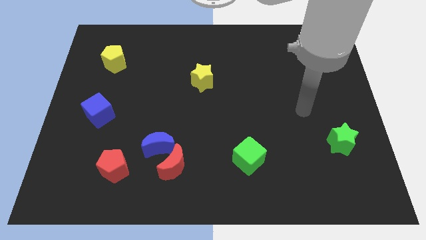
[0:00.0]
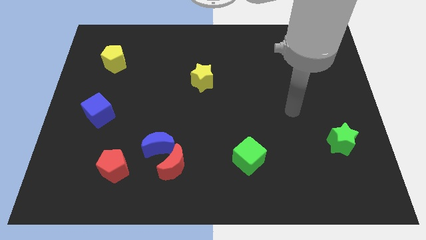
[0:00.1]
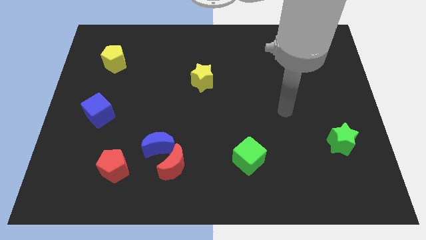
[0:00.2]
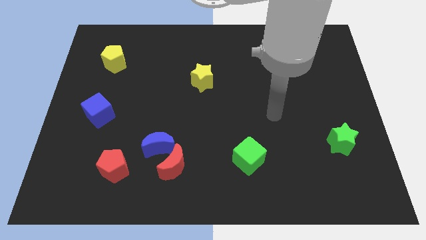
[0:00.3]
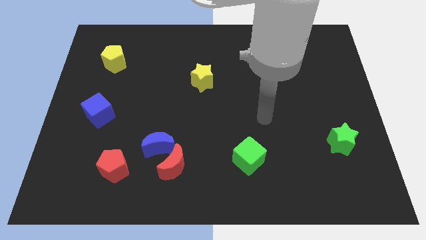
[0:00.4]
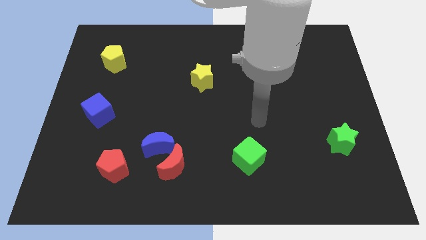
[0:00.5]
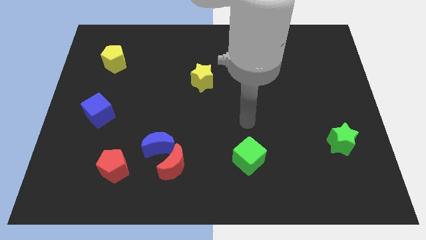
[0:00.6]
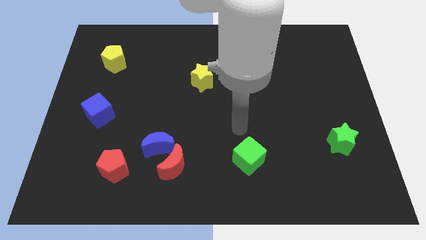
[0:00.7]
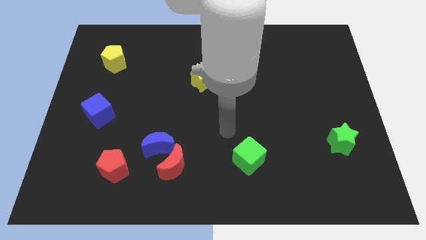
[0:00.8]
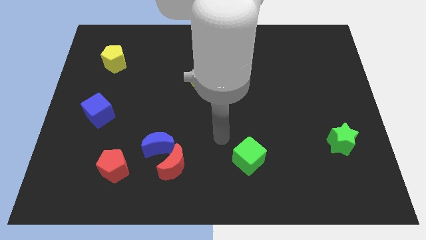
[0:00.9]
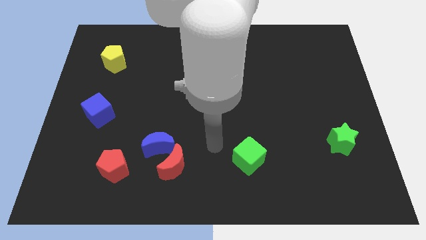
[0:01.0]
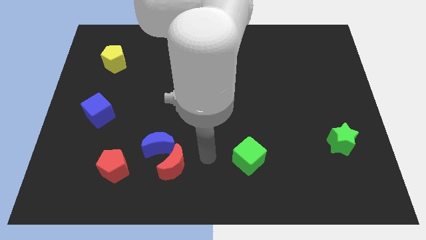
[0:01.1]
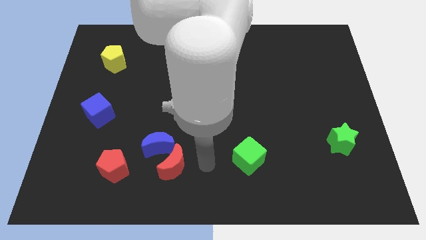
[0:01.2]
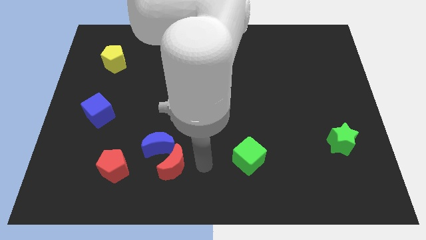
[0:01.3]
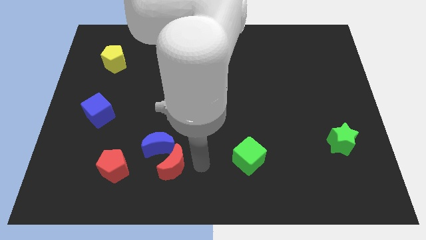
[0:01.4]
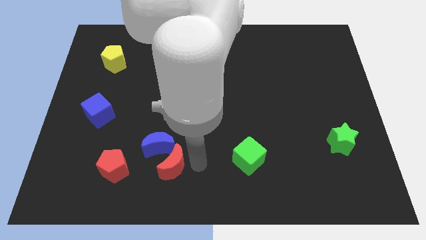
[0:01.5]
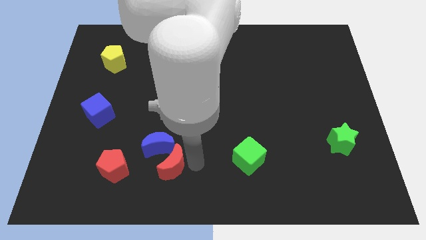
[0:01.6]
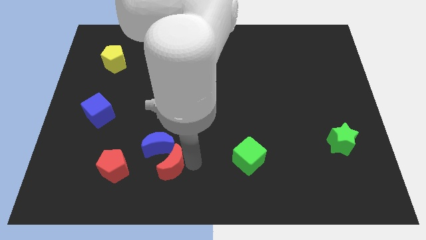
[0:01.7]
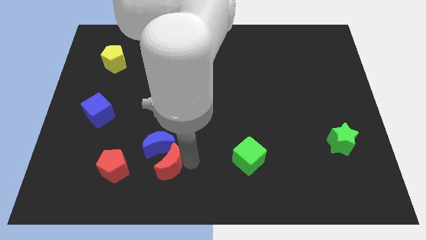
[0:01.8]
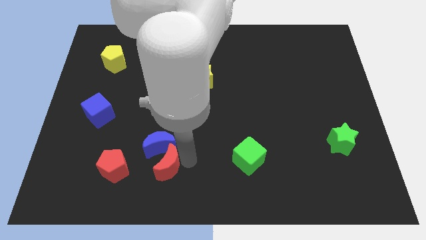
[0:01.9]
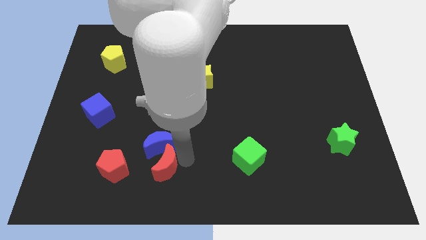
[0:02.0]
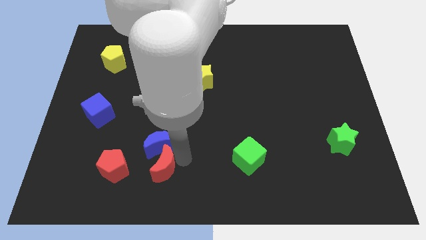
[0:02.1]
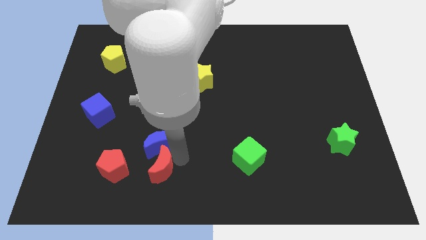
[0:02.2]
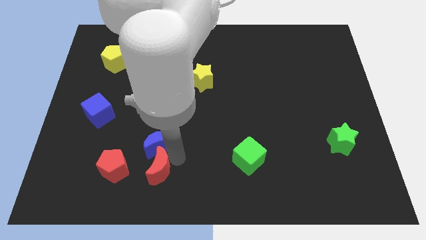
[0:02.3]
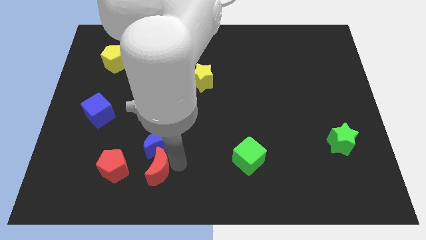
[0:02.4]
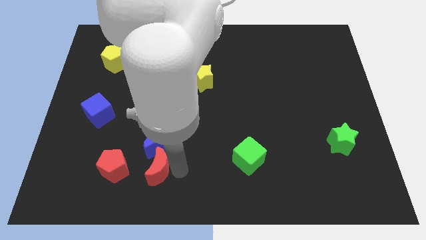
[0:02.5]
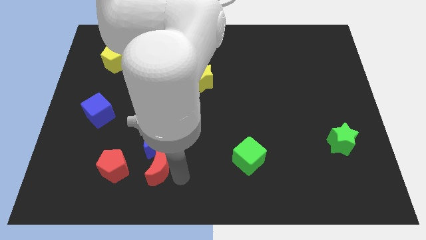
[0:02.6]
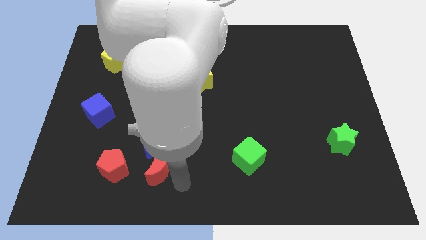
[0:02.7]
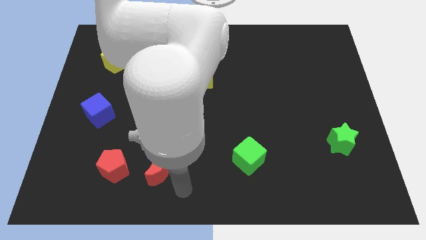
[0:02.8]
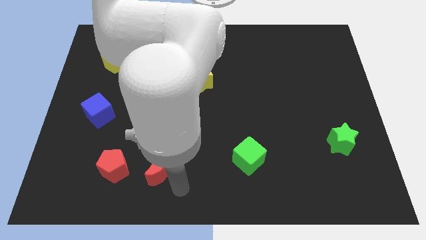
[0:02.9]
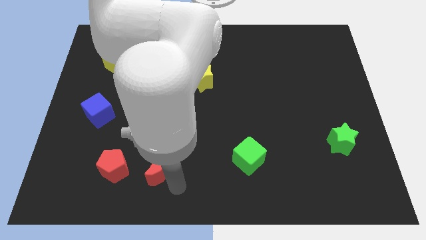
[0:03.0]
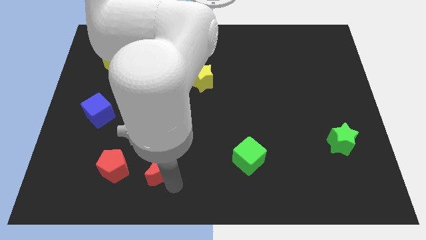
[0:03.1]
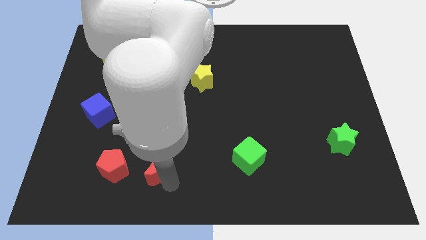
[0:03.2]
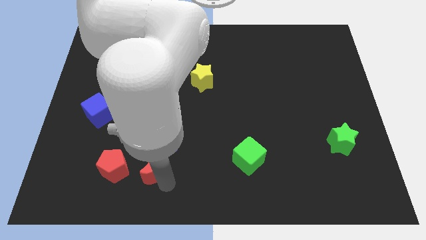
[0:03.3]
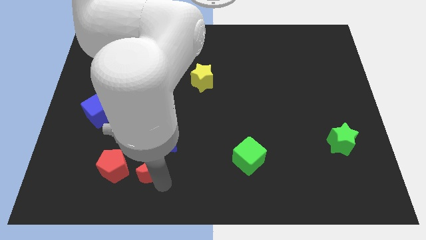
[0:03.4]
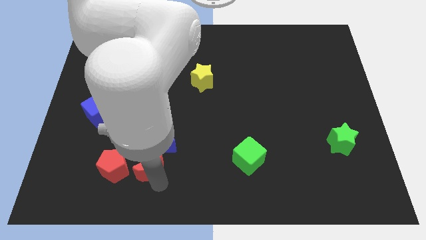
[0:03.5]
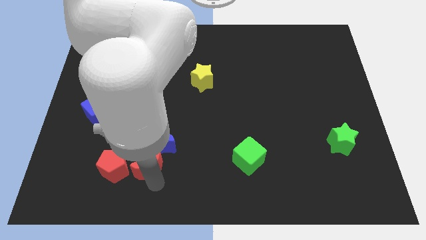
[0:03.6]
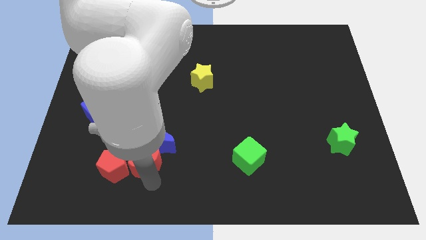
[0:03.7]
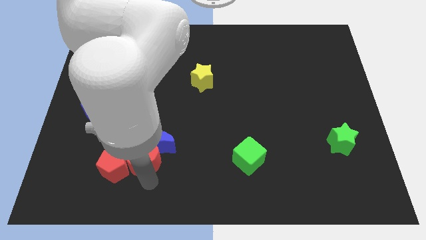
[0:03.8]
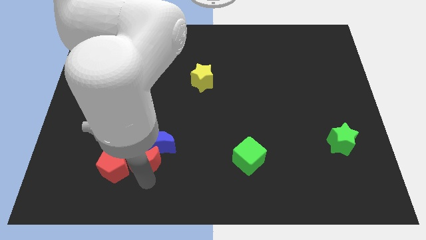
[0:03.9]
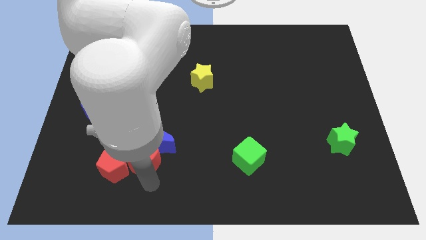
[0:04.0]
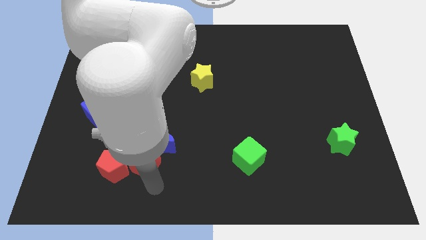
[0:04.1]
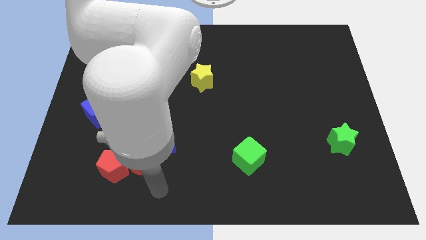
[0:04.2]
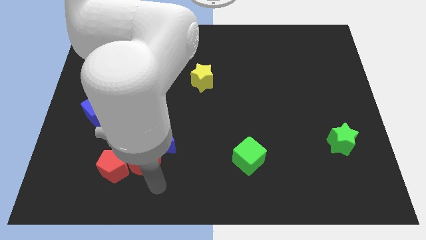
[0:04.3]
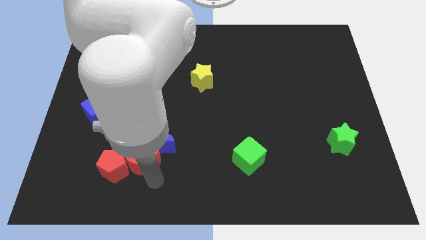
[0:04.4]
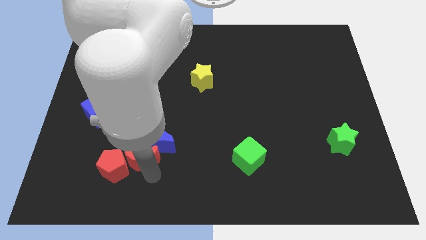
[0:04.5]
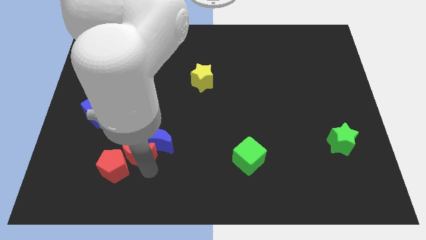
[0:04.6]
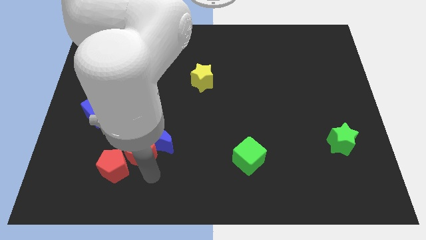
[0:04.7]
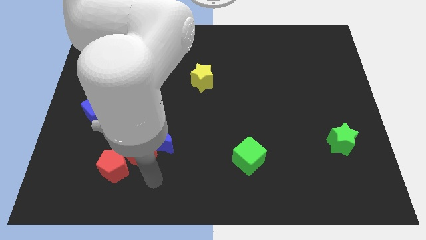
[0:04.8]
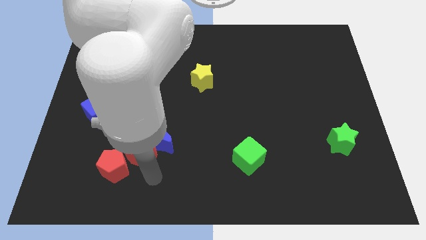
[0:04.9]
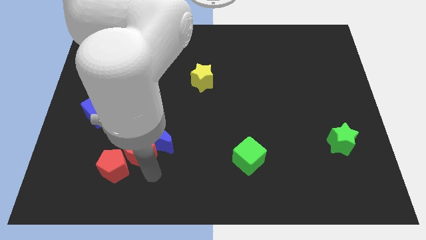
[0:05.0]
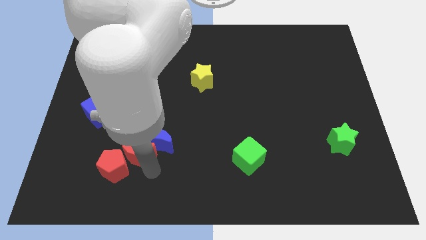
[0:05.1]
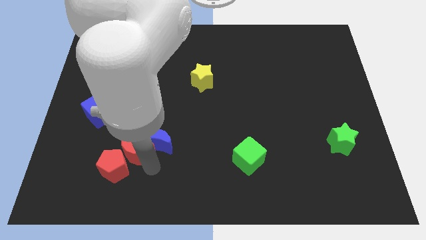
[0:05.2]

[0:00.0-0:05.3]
slide the red moon upwards and left somewhat

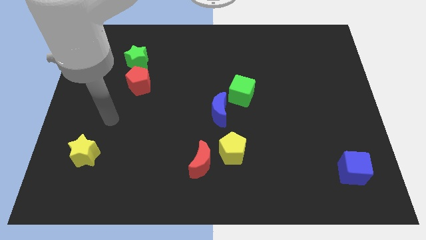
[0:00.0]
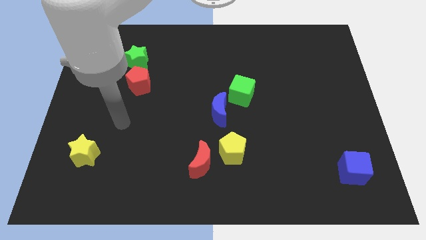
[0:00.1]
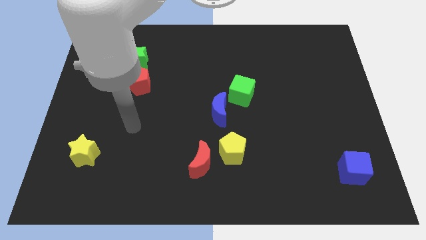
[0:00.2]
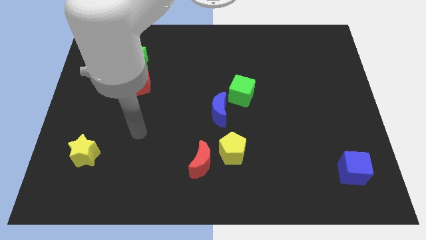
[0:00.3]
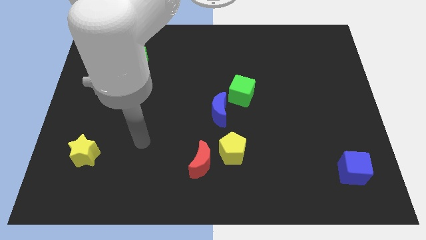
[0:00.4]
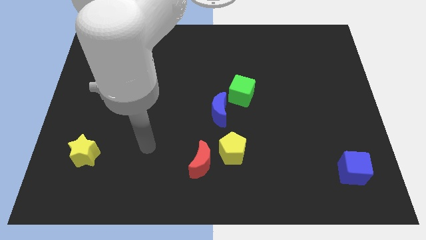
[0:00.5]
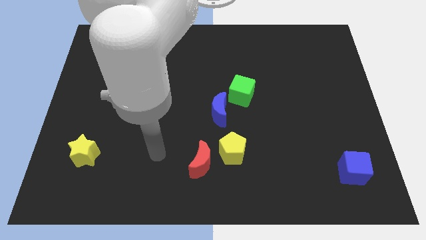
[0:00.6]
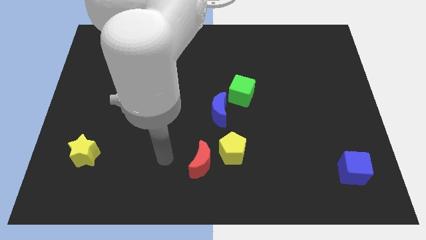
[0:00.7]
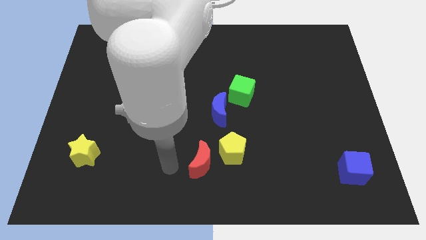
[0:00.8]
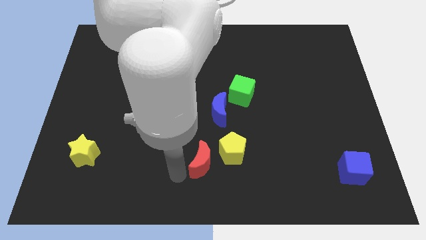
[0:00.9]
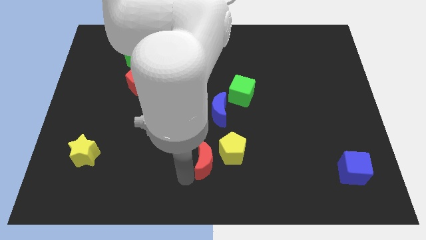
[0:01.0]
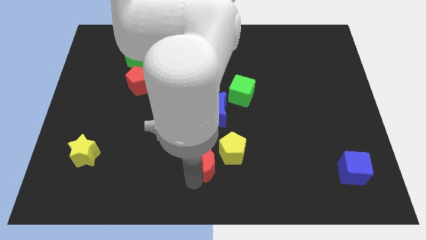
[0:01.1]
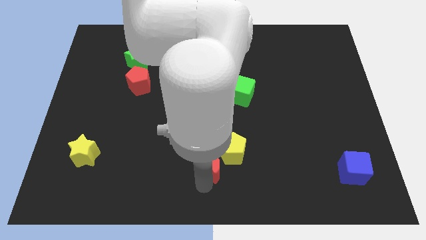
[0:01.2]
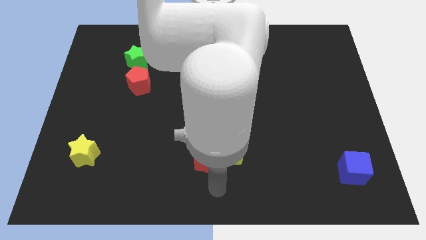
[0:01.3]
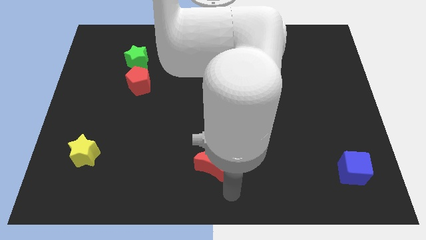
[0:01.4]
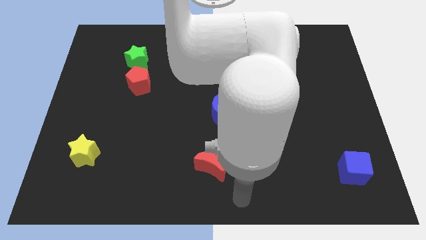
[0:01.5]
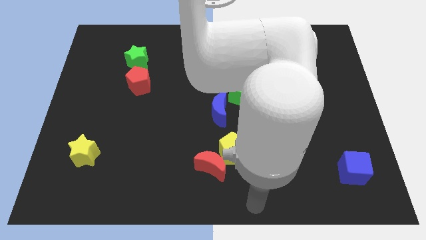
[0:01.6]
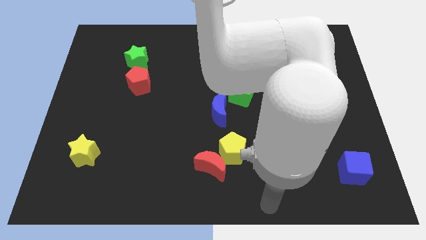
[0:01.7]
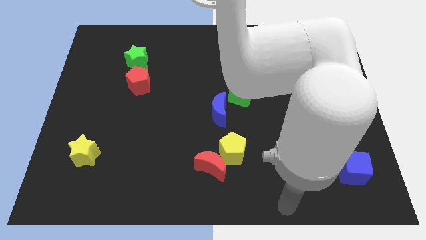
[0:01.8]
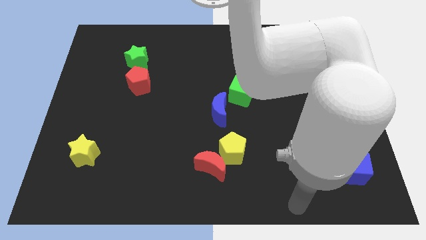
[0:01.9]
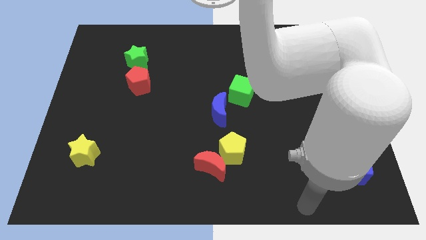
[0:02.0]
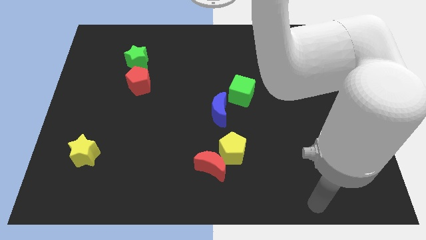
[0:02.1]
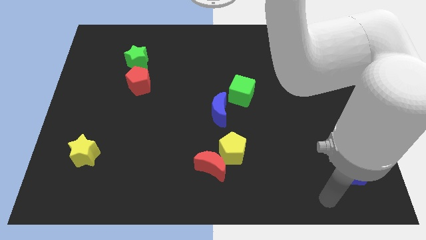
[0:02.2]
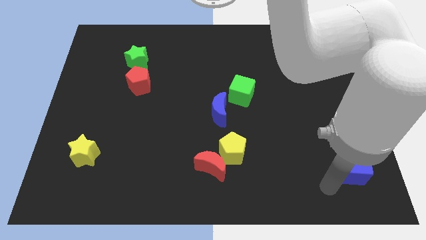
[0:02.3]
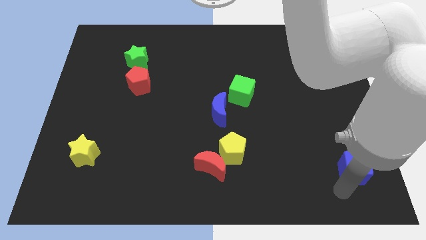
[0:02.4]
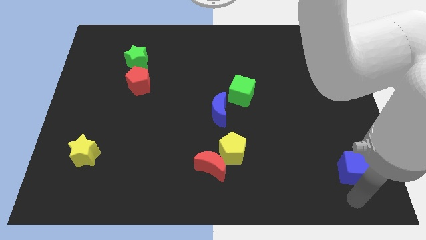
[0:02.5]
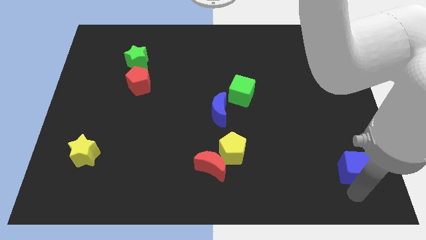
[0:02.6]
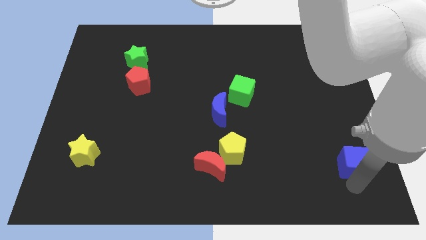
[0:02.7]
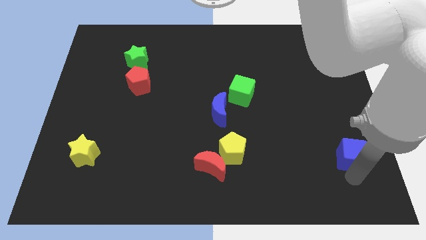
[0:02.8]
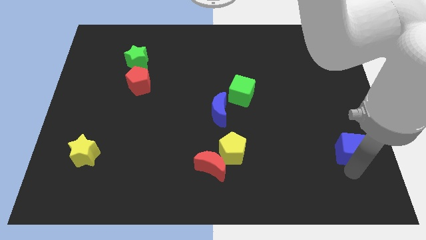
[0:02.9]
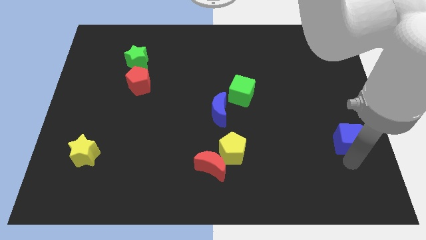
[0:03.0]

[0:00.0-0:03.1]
slightly slide the blue cube upwards
